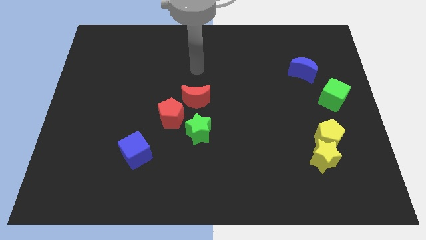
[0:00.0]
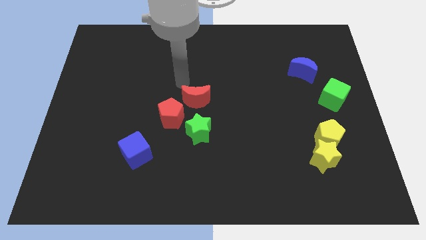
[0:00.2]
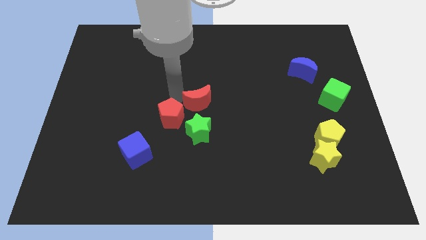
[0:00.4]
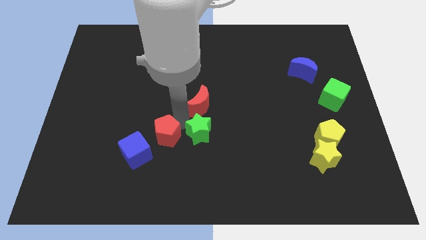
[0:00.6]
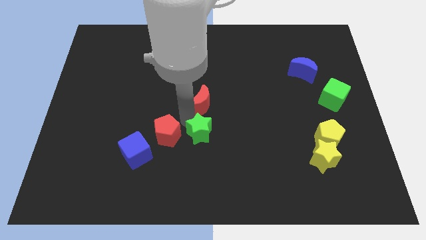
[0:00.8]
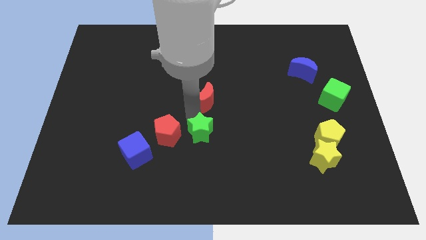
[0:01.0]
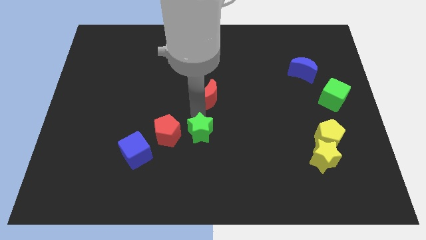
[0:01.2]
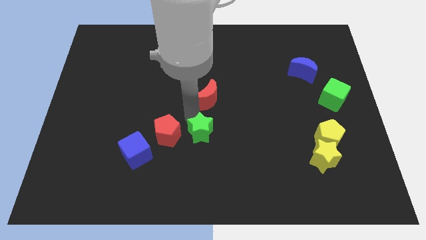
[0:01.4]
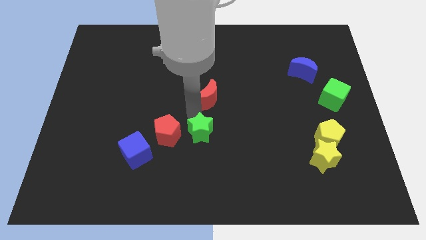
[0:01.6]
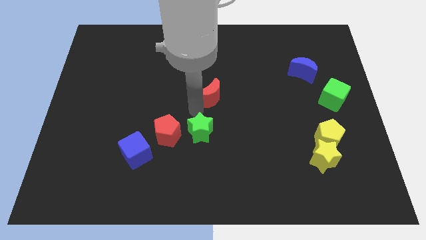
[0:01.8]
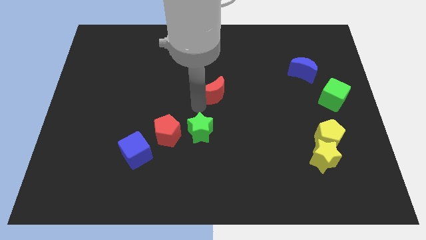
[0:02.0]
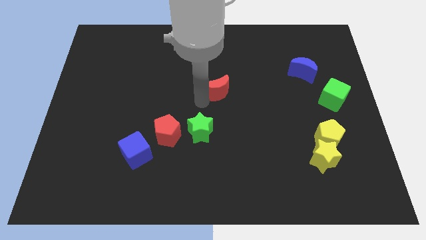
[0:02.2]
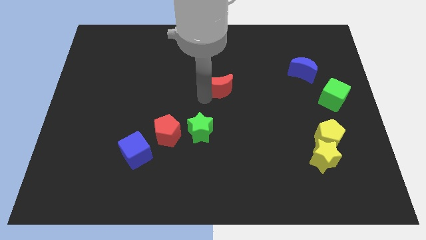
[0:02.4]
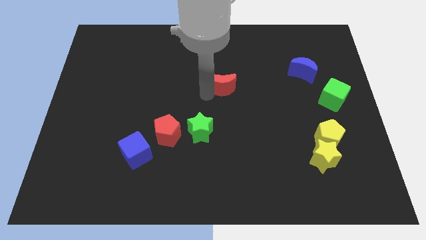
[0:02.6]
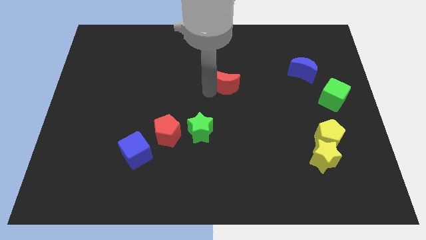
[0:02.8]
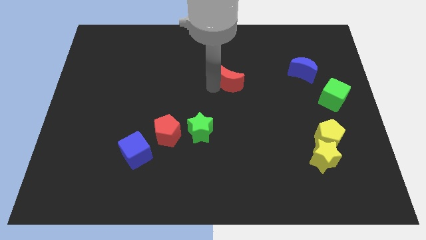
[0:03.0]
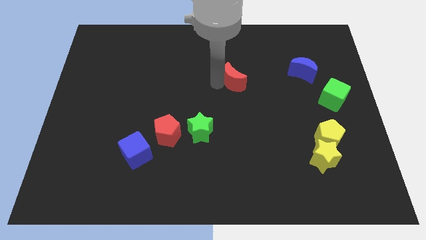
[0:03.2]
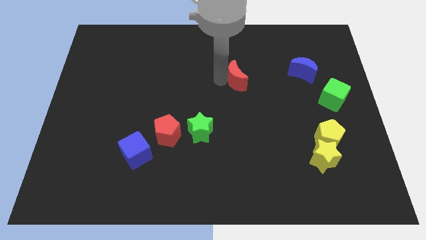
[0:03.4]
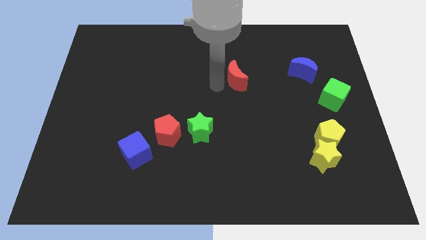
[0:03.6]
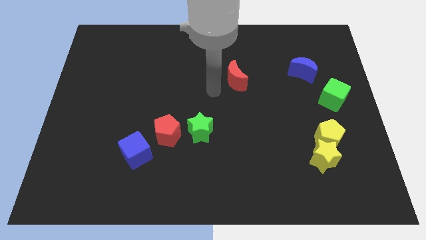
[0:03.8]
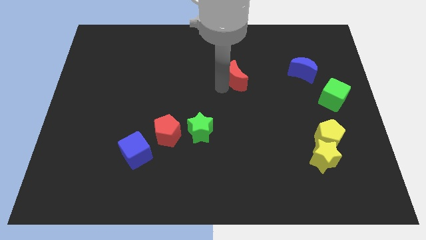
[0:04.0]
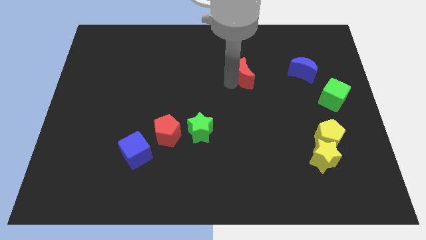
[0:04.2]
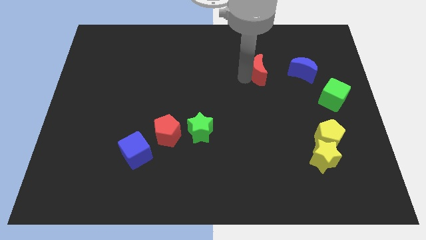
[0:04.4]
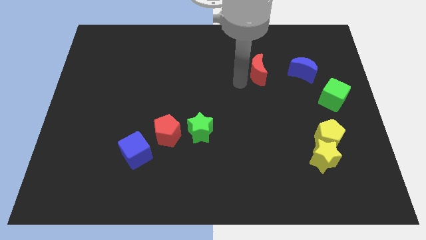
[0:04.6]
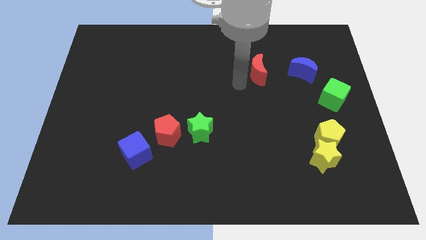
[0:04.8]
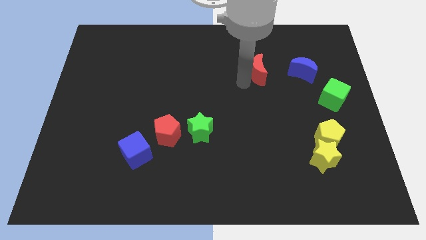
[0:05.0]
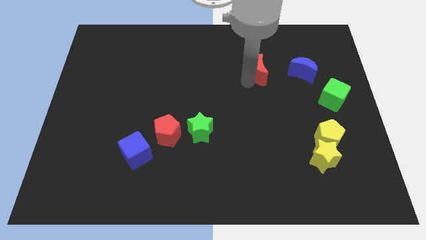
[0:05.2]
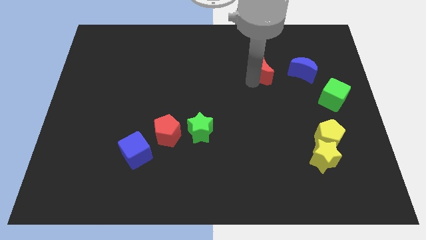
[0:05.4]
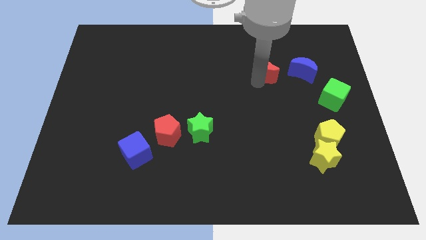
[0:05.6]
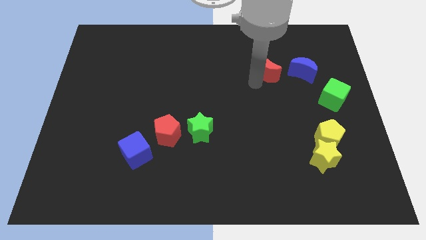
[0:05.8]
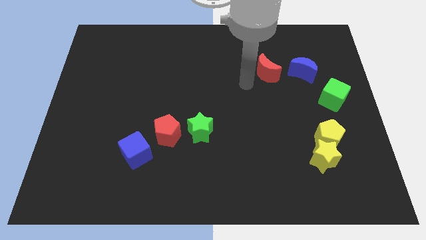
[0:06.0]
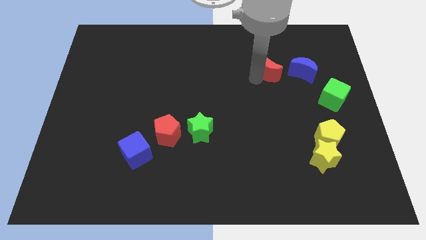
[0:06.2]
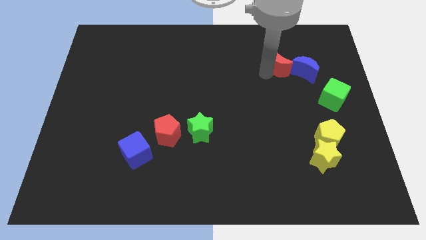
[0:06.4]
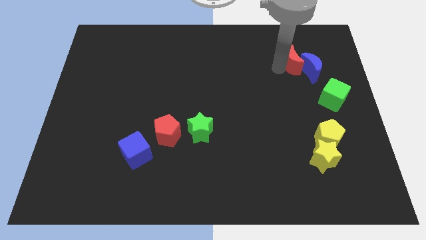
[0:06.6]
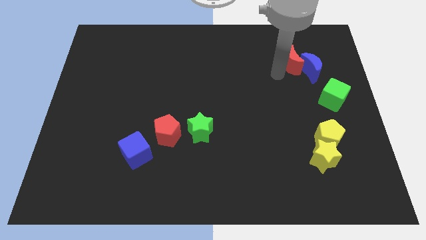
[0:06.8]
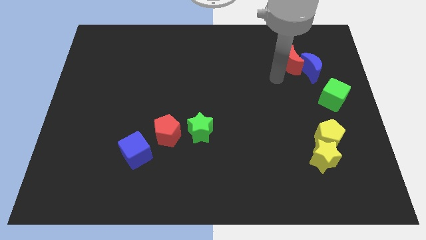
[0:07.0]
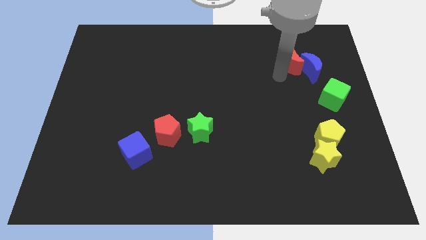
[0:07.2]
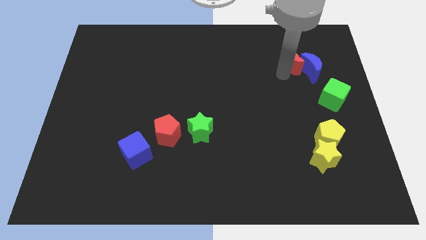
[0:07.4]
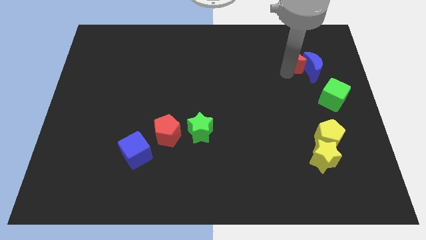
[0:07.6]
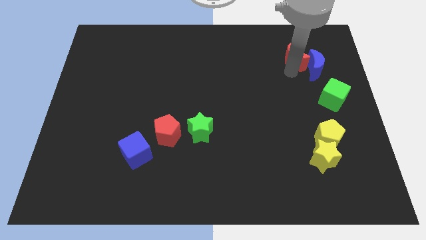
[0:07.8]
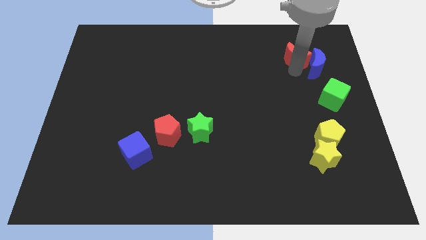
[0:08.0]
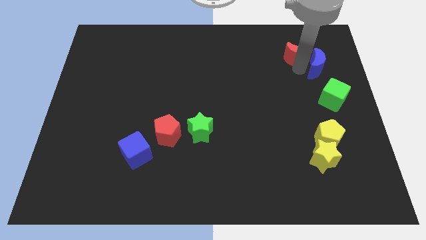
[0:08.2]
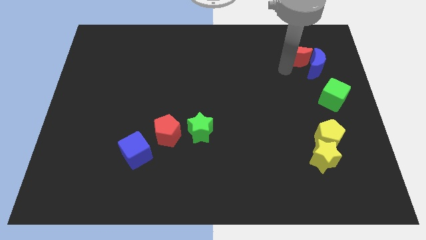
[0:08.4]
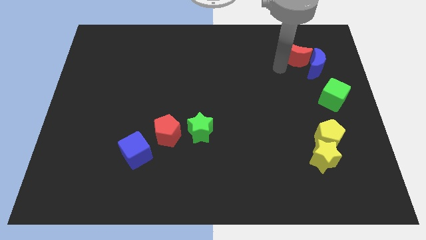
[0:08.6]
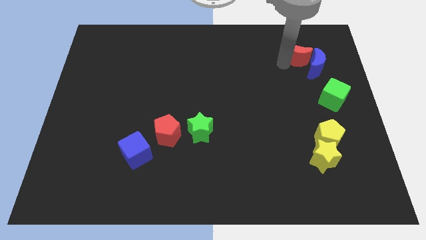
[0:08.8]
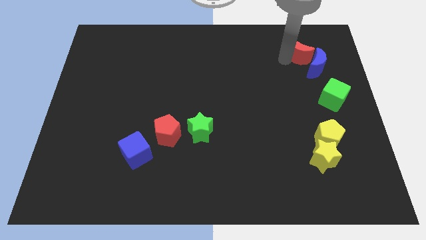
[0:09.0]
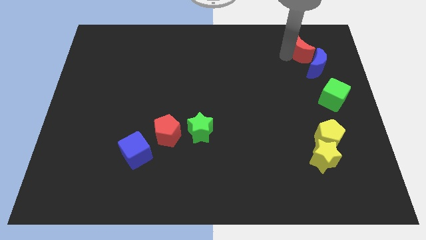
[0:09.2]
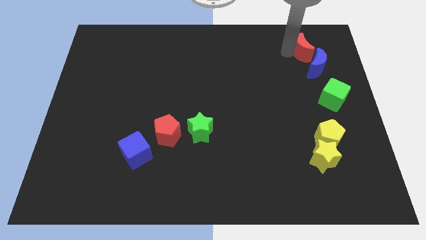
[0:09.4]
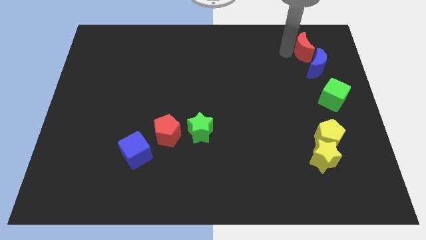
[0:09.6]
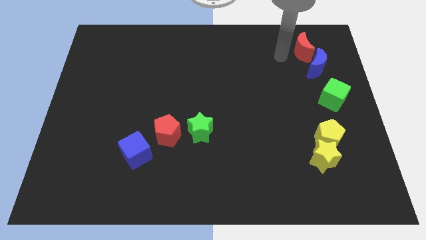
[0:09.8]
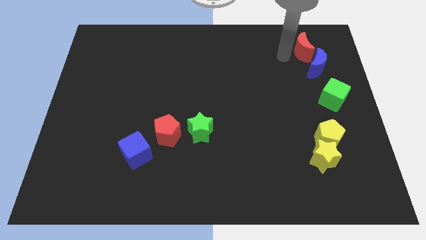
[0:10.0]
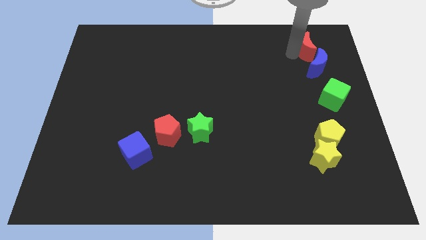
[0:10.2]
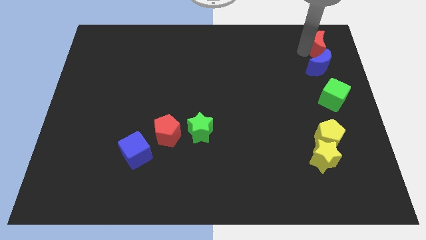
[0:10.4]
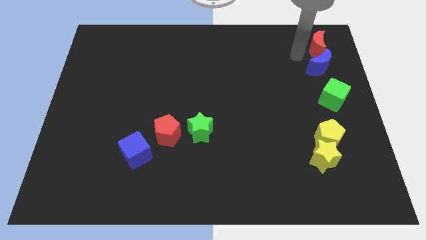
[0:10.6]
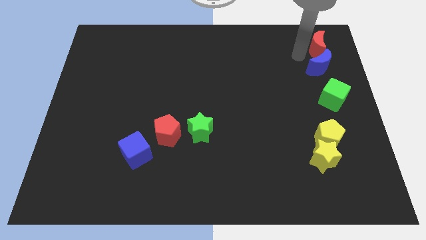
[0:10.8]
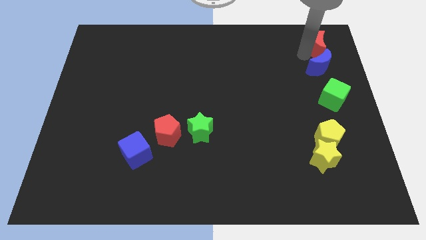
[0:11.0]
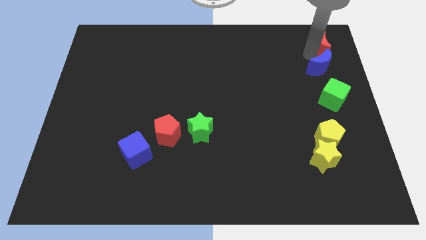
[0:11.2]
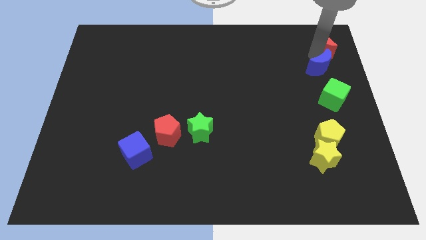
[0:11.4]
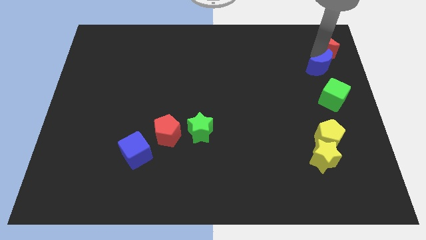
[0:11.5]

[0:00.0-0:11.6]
put the red moon to the top right corner

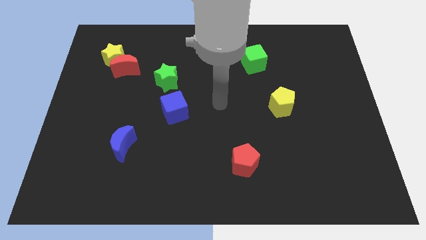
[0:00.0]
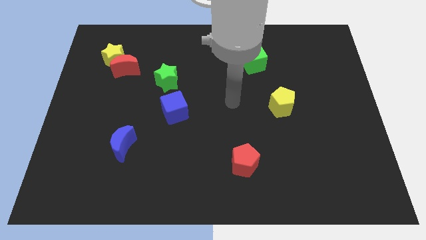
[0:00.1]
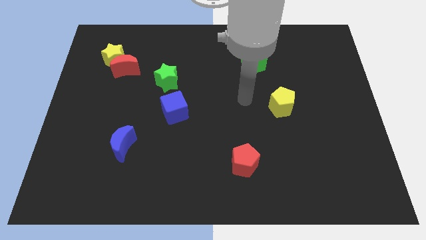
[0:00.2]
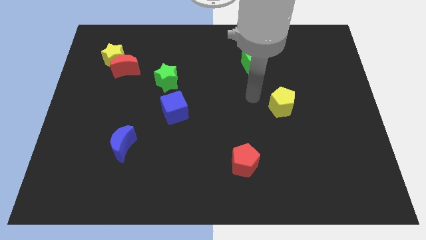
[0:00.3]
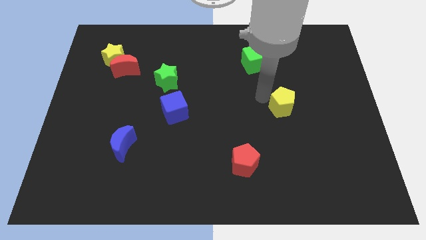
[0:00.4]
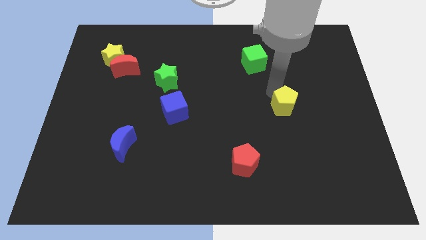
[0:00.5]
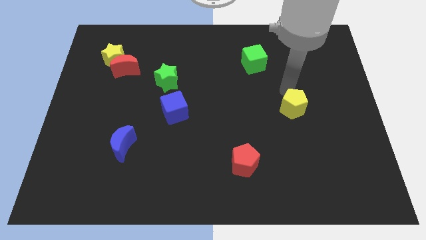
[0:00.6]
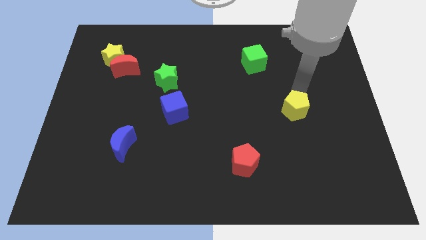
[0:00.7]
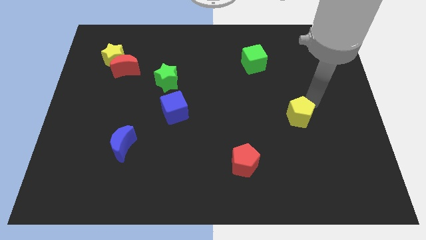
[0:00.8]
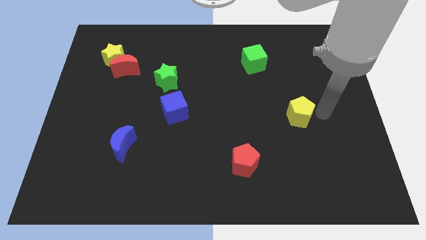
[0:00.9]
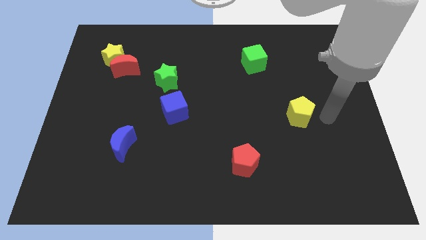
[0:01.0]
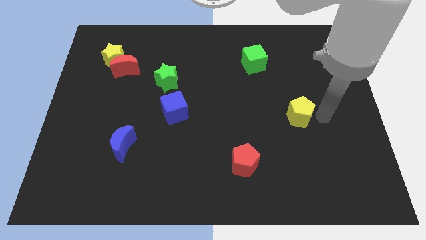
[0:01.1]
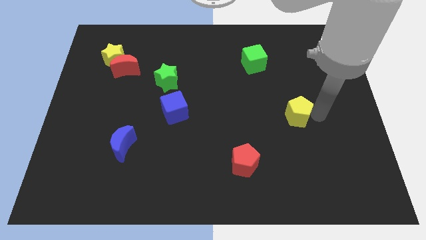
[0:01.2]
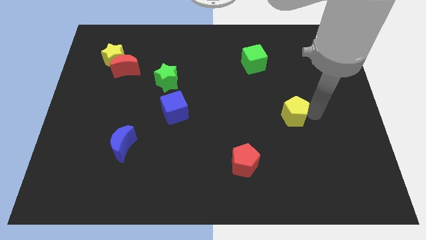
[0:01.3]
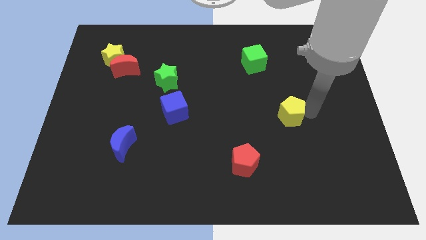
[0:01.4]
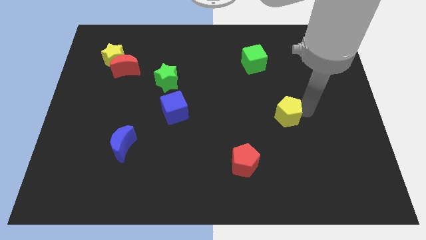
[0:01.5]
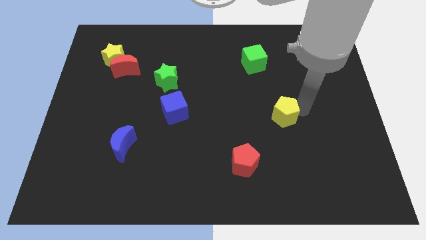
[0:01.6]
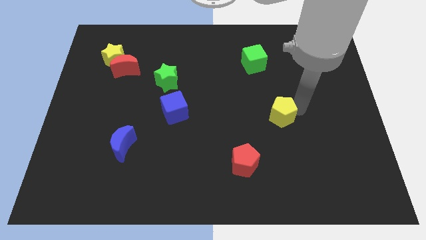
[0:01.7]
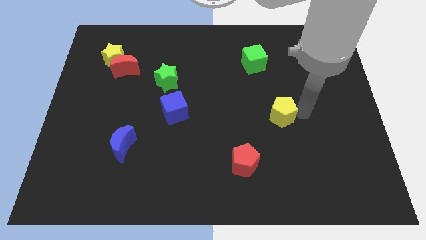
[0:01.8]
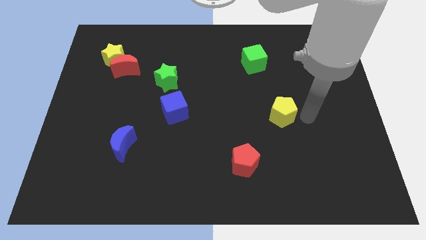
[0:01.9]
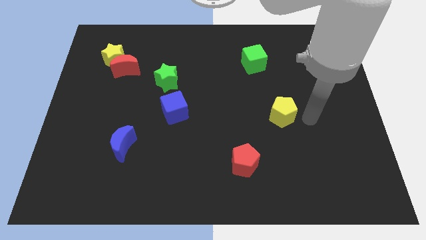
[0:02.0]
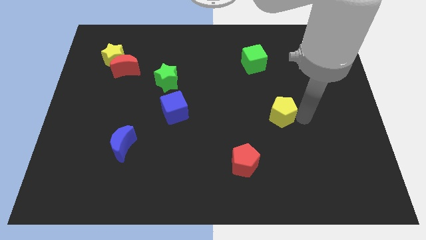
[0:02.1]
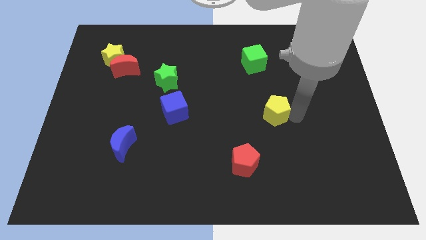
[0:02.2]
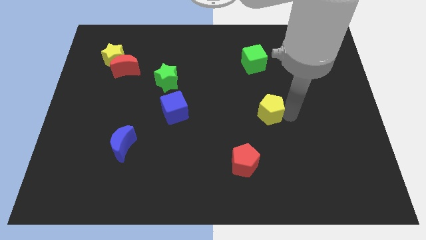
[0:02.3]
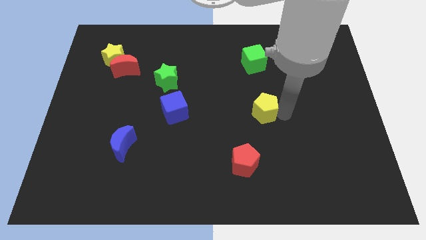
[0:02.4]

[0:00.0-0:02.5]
put the yellow pentagon to the center
